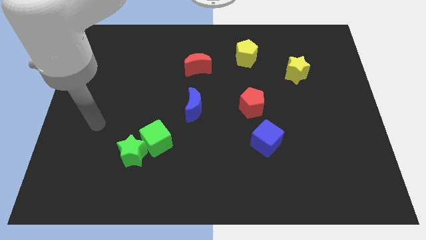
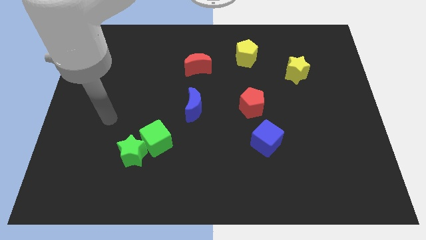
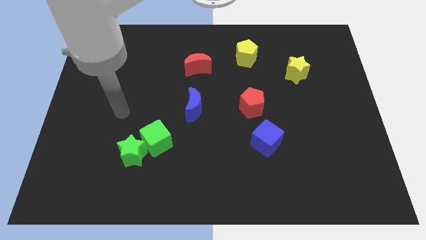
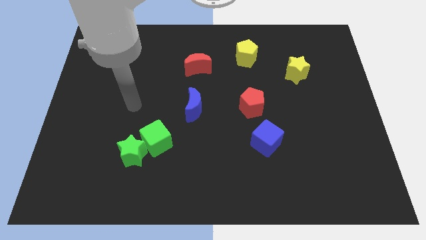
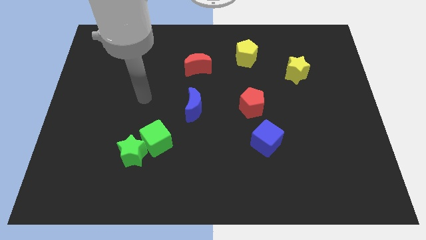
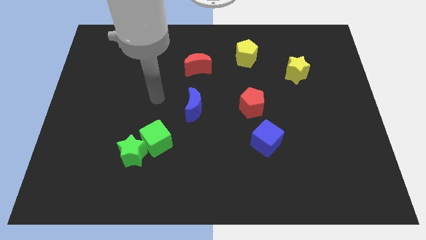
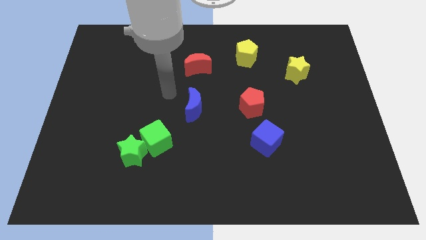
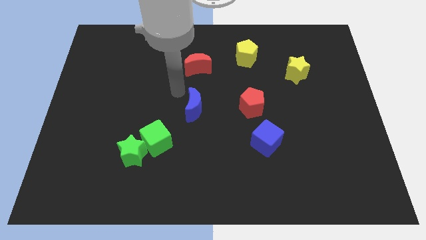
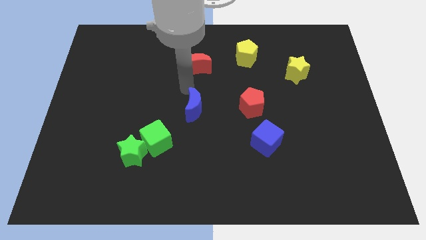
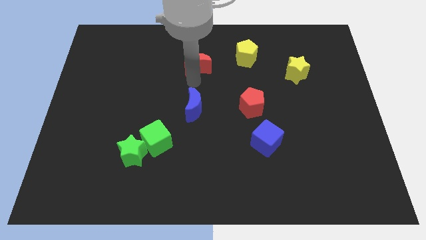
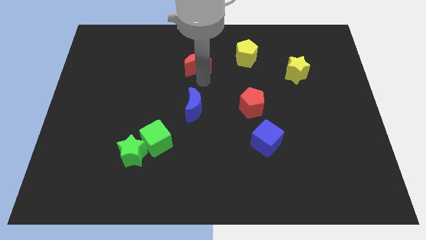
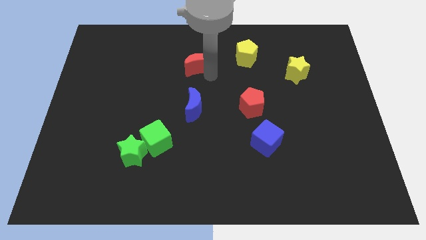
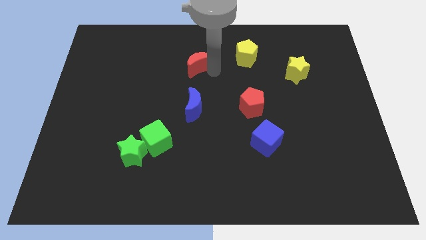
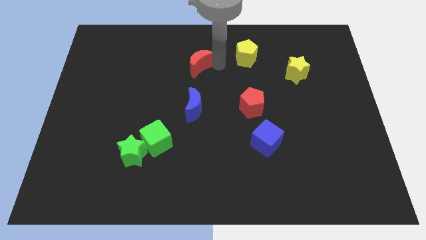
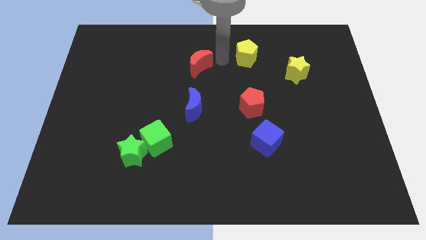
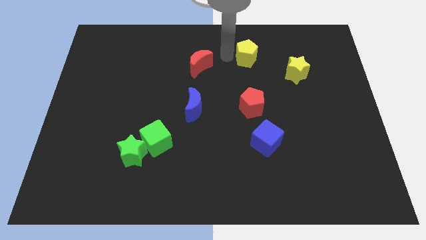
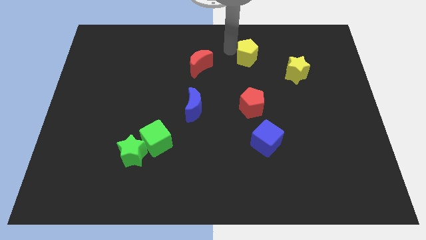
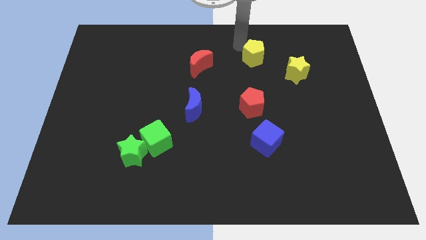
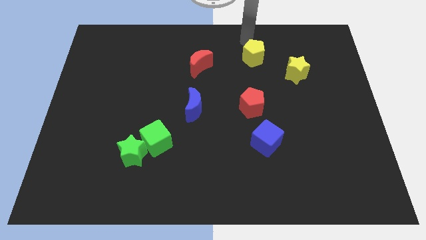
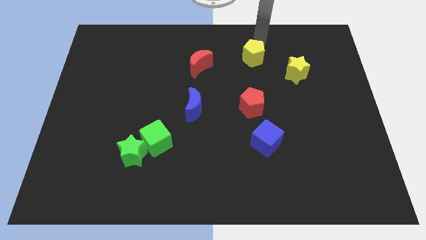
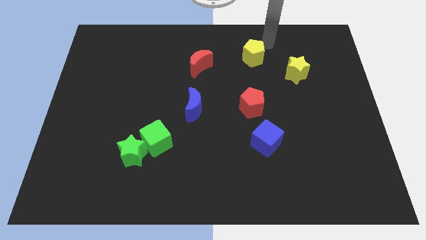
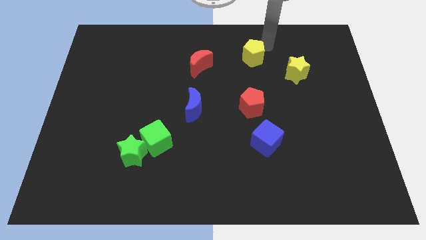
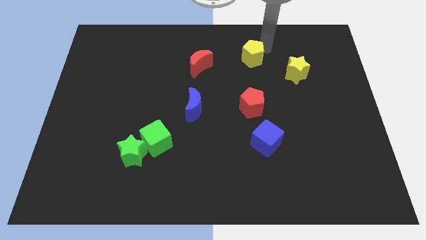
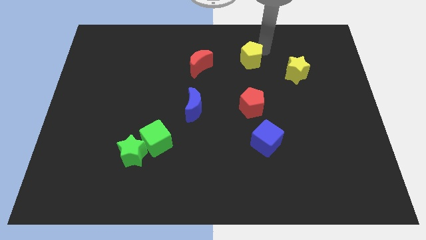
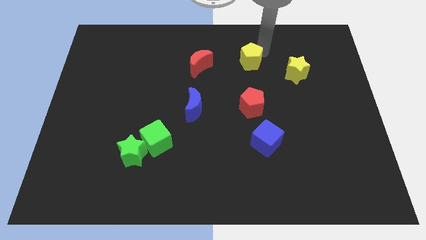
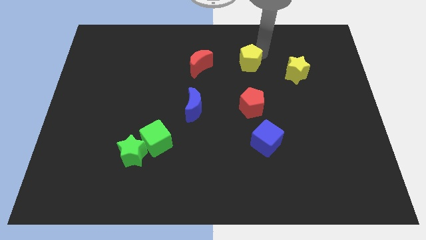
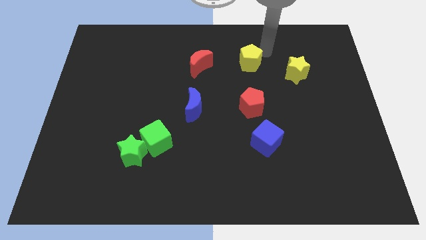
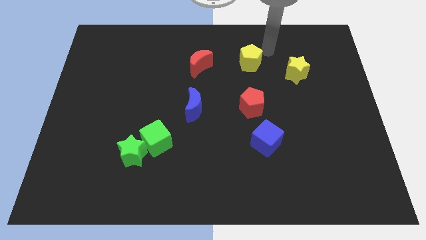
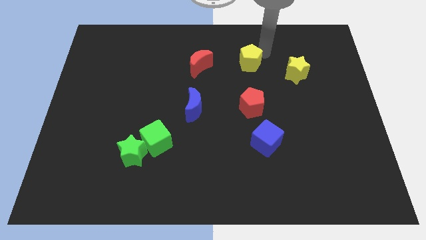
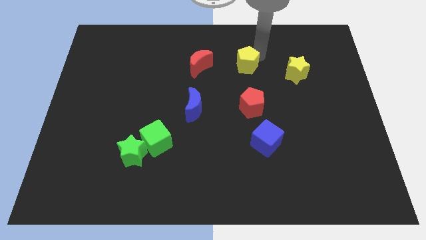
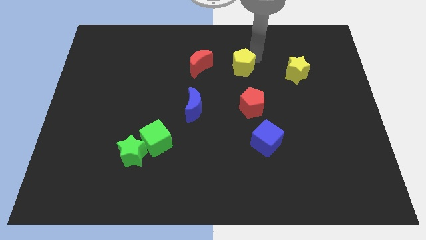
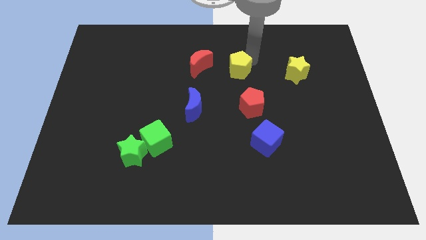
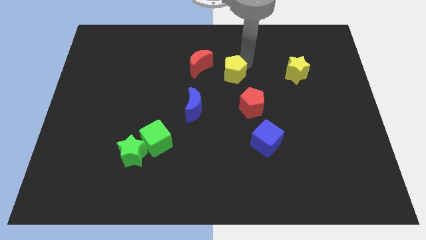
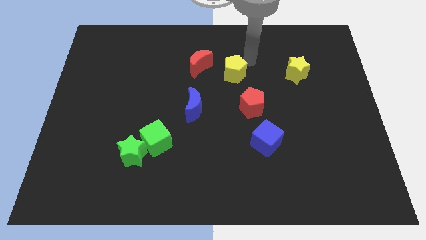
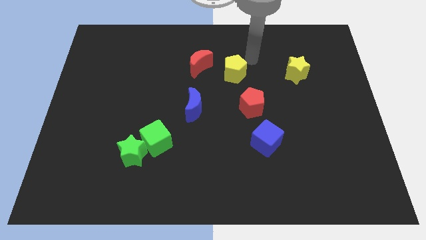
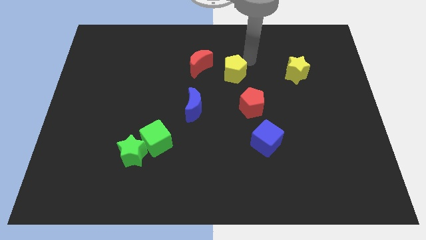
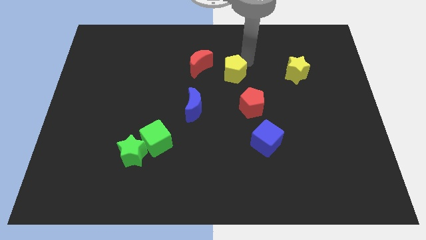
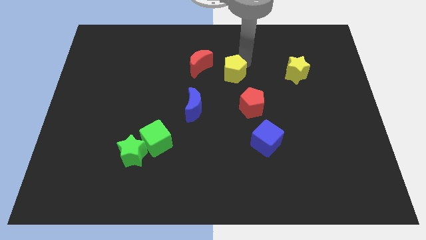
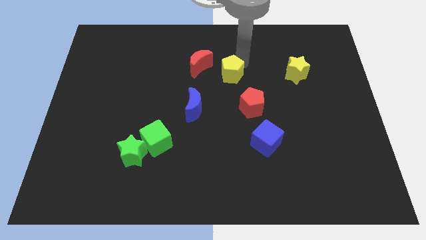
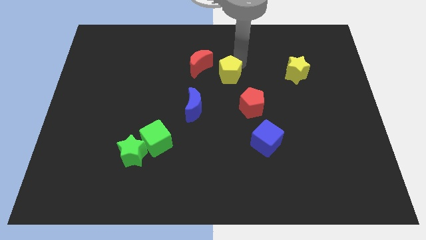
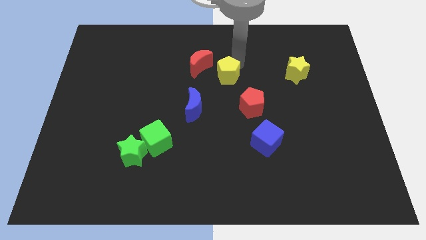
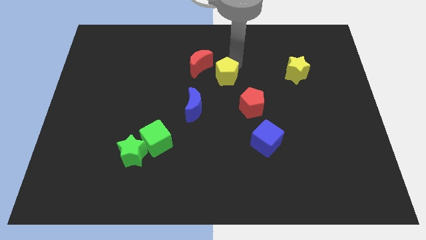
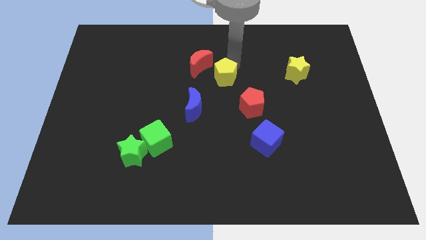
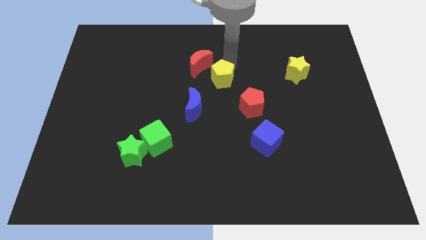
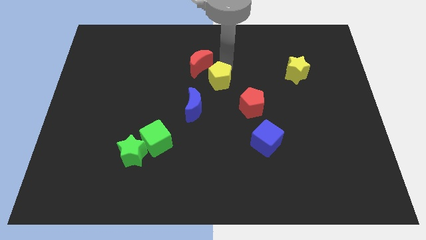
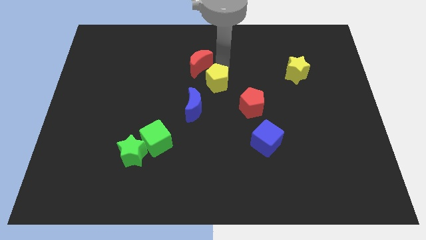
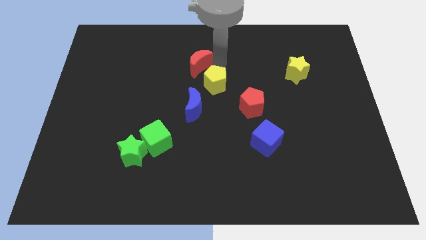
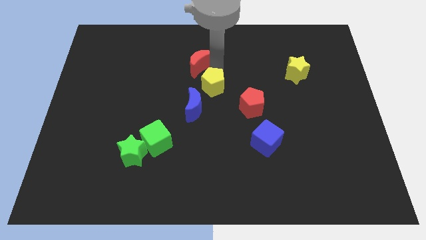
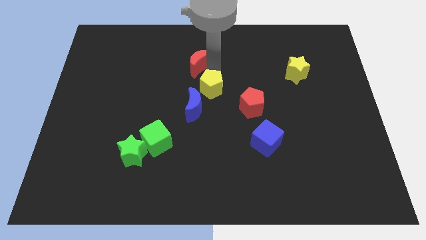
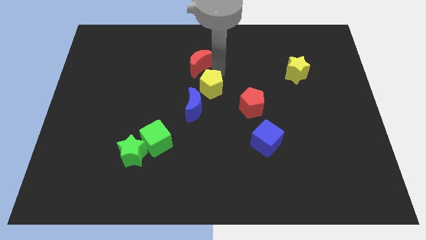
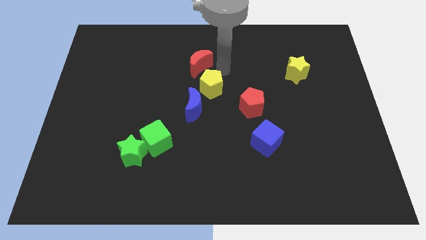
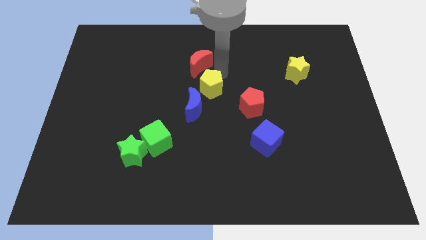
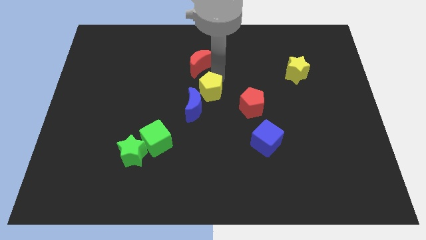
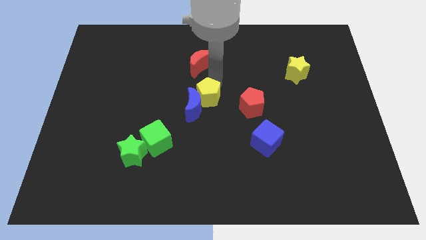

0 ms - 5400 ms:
move the yellow pentagon close to the blue moon

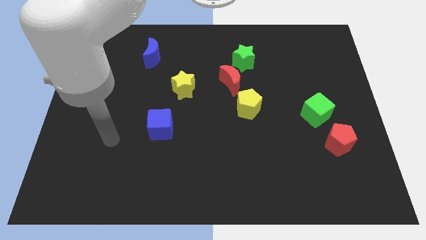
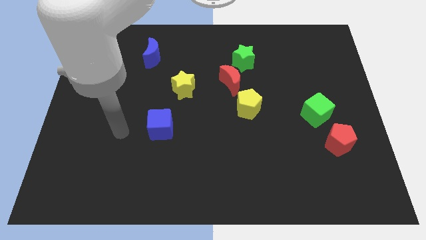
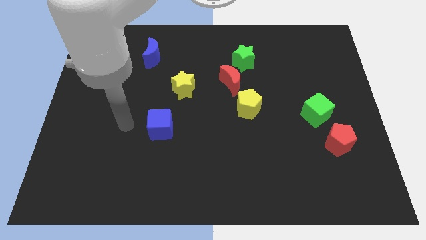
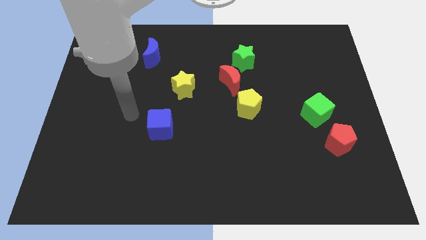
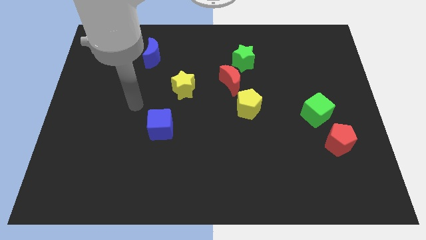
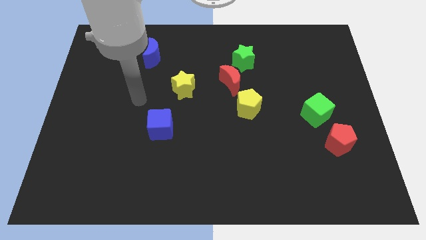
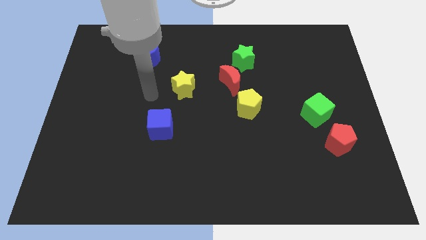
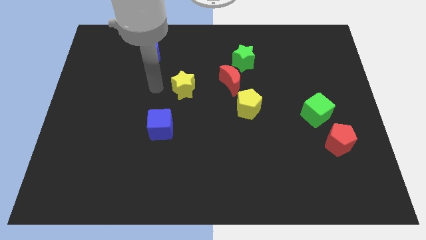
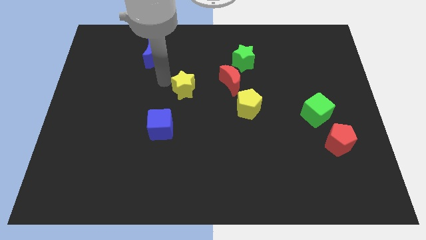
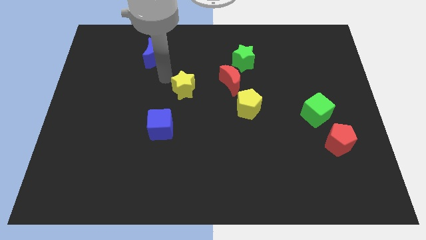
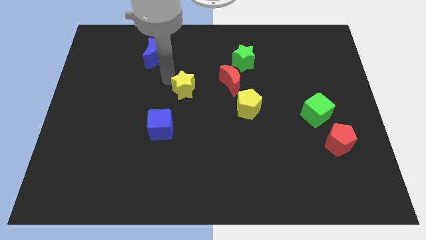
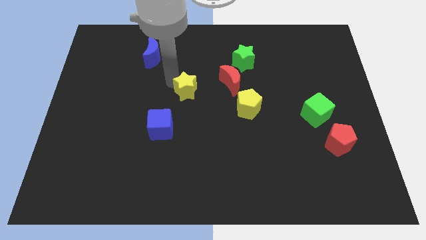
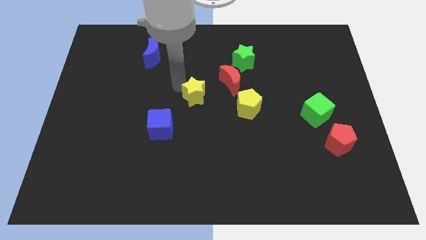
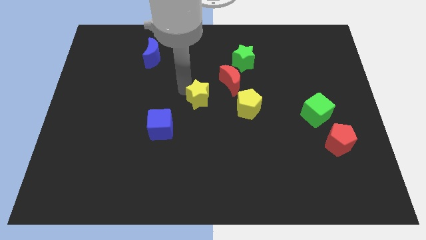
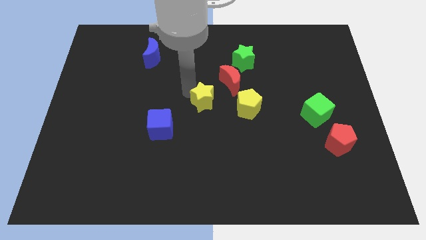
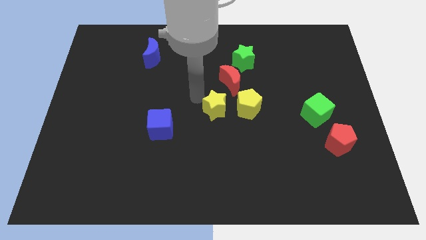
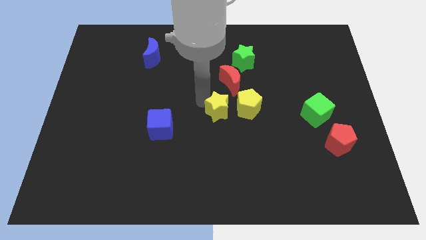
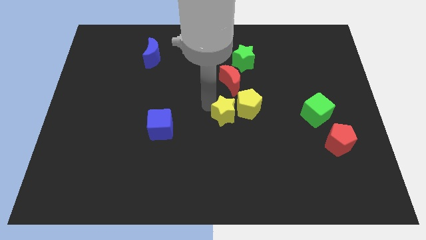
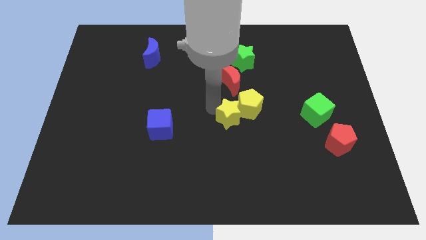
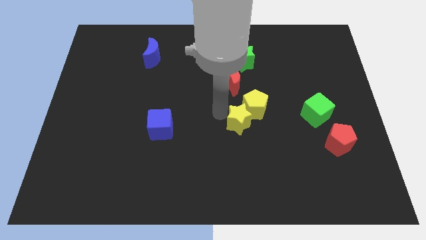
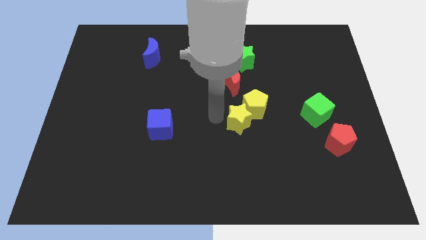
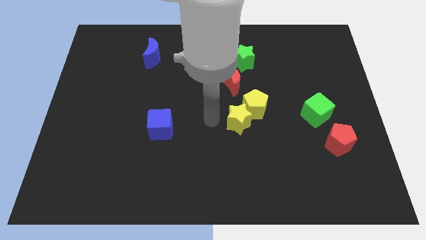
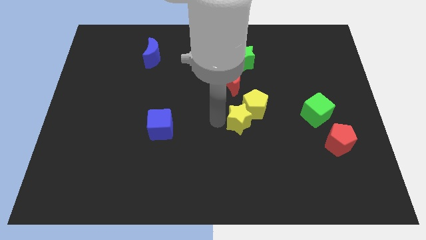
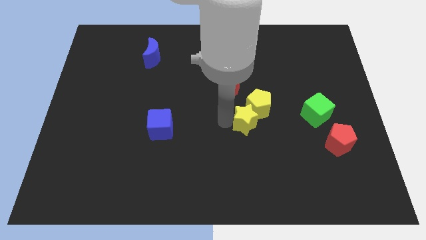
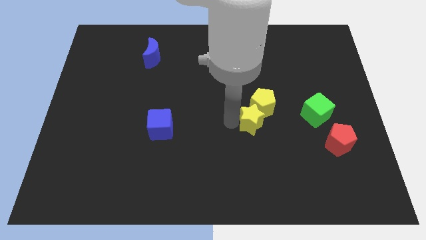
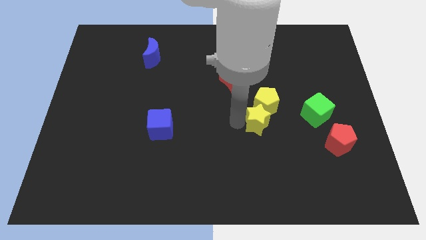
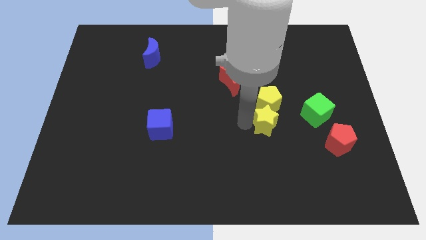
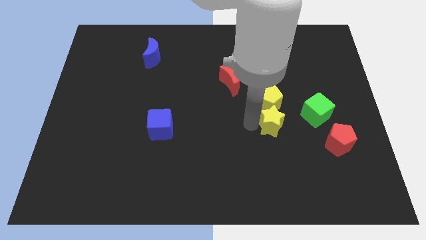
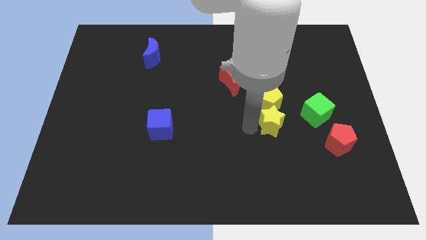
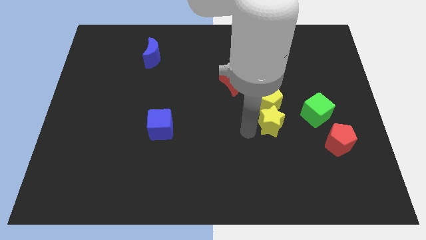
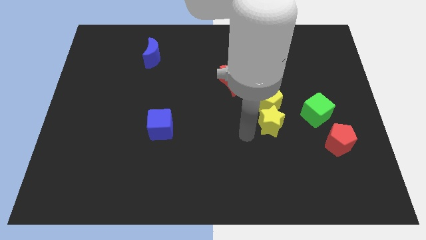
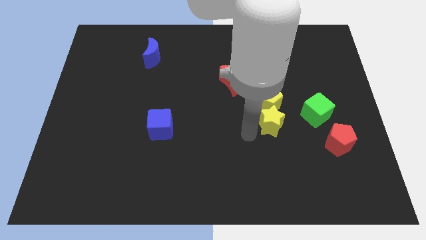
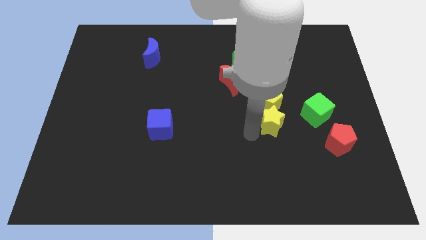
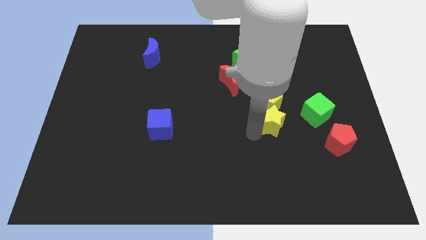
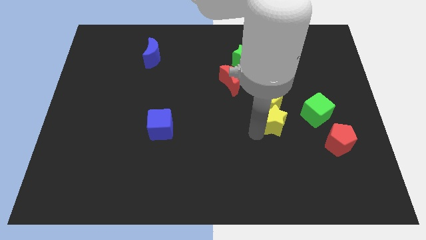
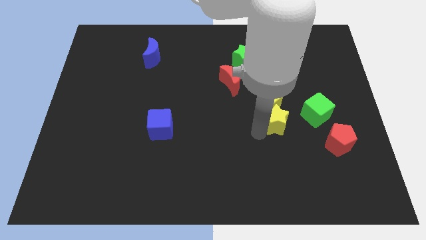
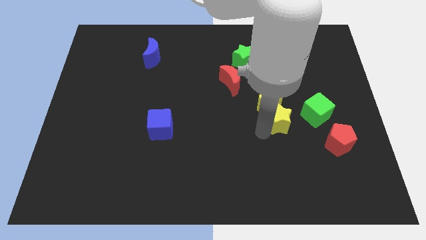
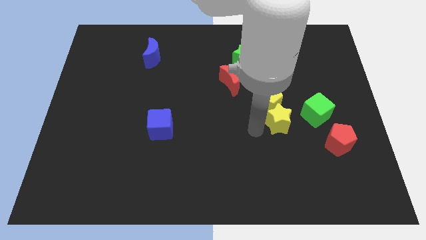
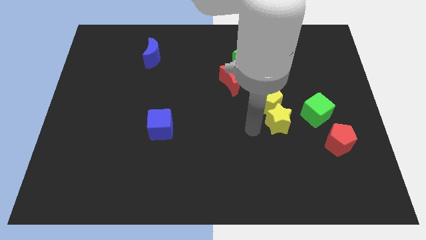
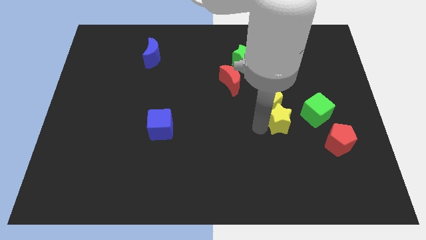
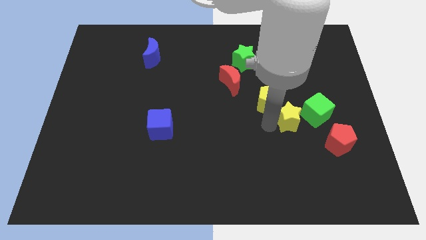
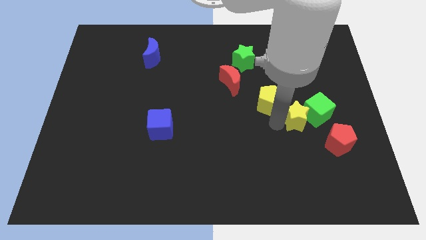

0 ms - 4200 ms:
push the yellow star next to the green cube
